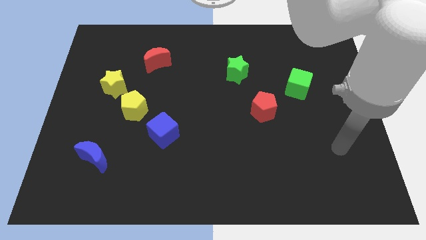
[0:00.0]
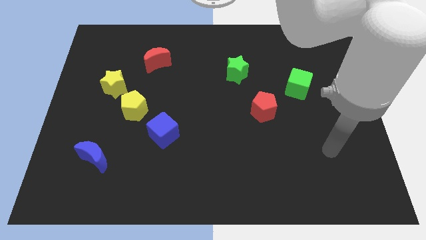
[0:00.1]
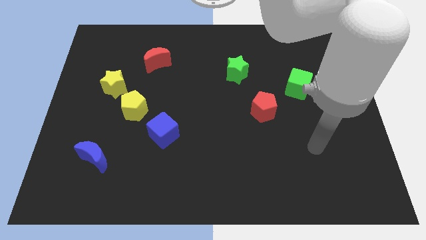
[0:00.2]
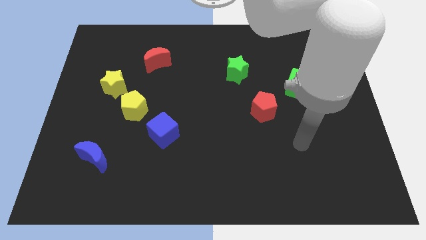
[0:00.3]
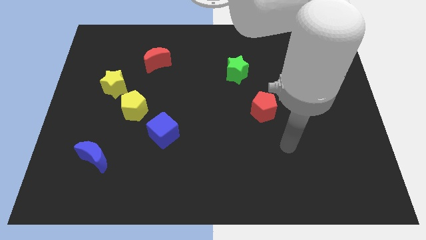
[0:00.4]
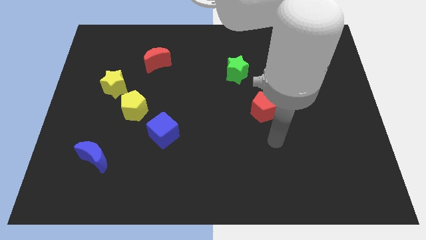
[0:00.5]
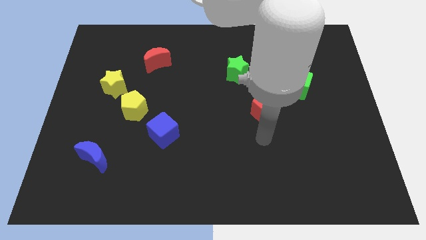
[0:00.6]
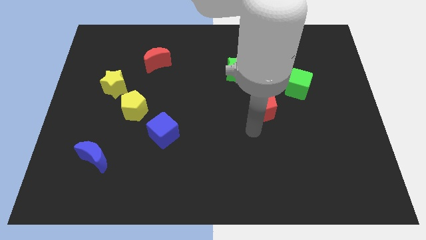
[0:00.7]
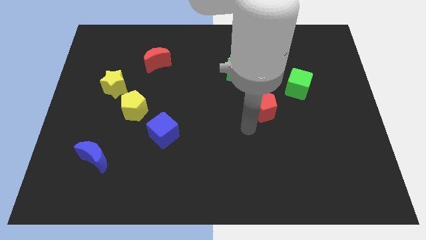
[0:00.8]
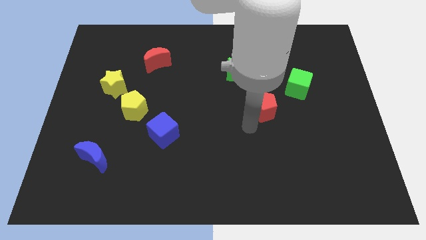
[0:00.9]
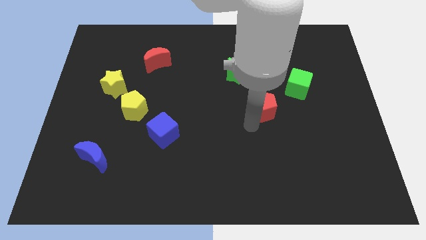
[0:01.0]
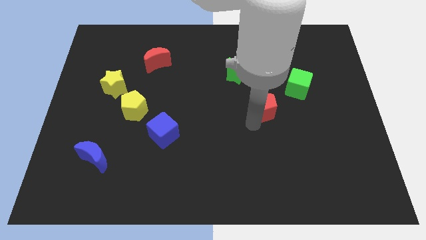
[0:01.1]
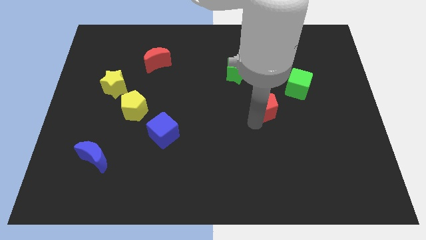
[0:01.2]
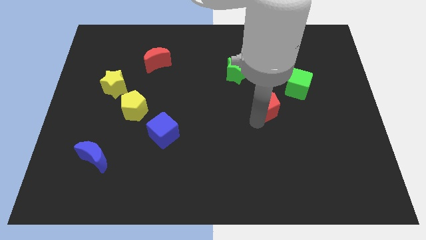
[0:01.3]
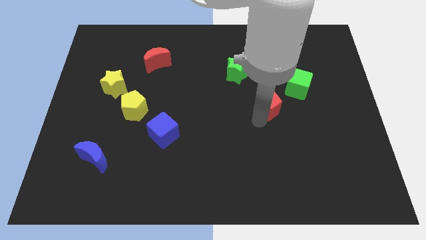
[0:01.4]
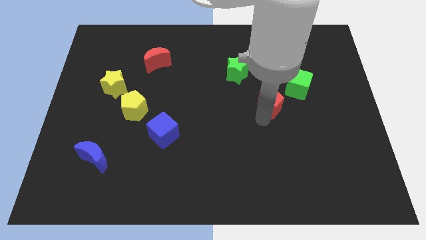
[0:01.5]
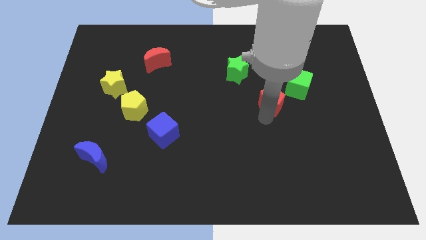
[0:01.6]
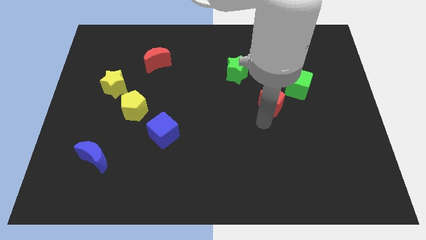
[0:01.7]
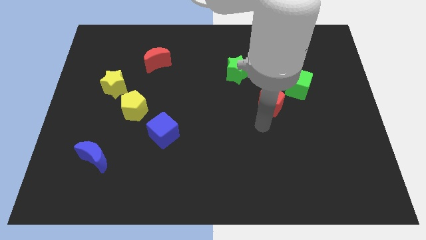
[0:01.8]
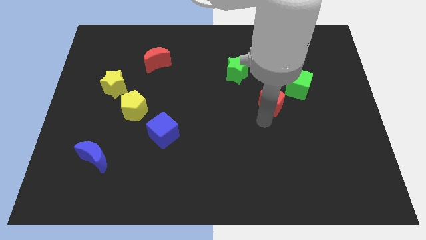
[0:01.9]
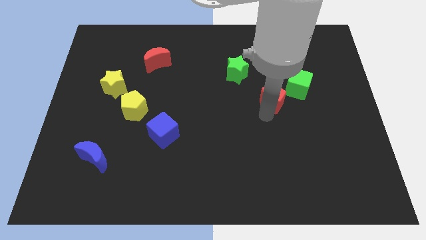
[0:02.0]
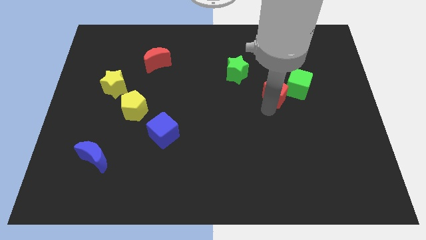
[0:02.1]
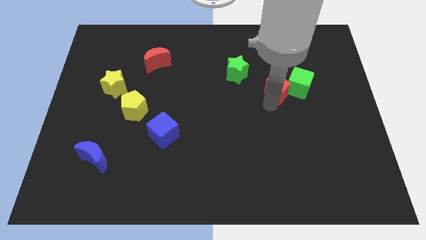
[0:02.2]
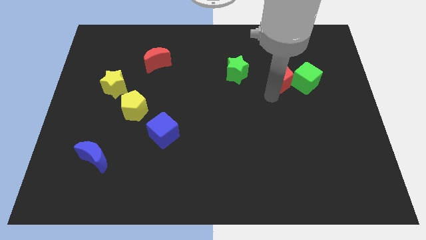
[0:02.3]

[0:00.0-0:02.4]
slightly push the red pentagon up and right diagonally

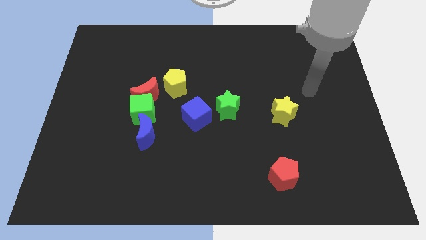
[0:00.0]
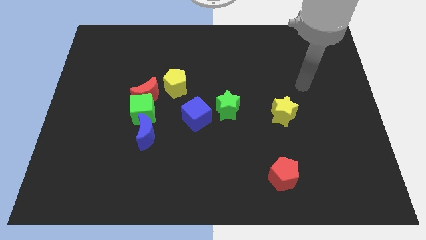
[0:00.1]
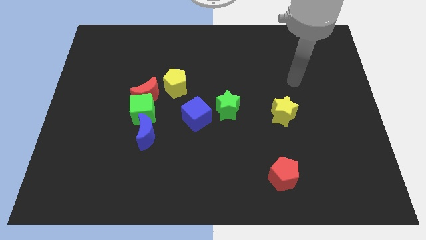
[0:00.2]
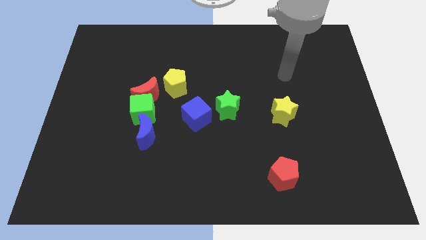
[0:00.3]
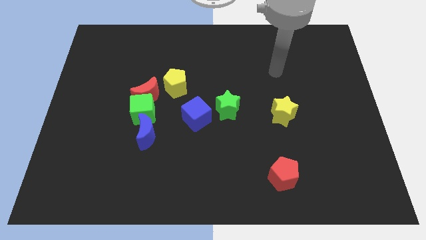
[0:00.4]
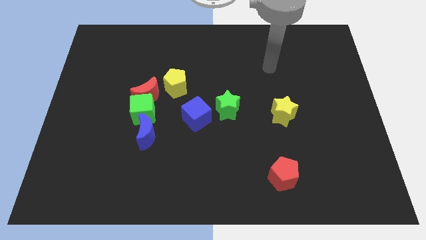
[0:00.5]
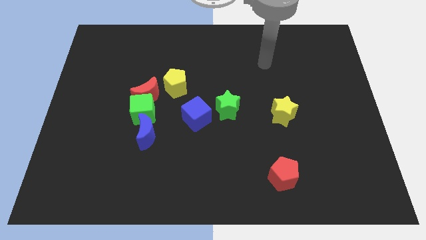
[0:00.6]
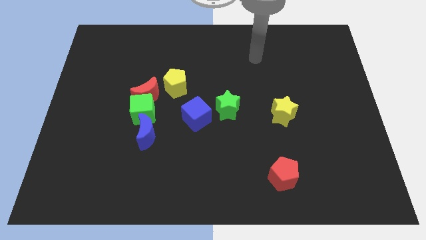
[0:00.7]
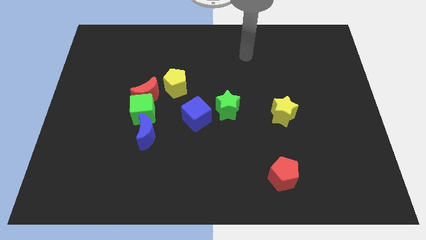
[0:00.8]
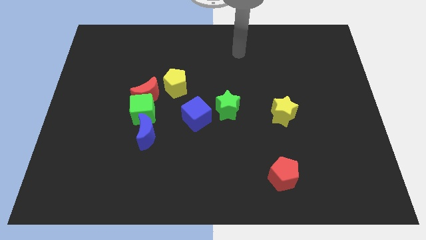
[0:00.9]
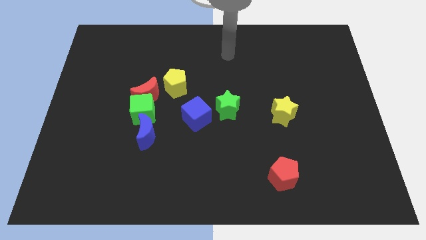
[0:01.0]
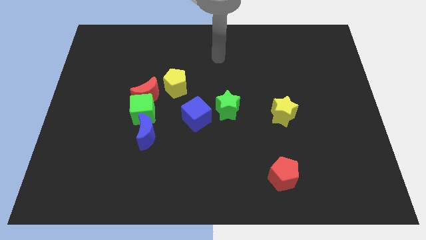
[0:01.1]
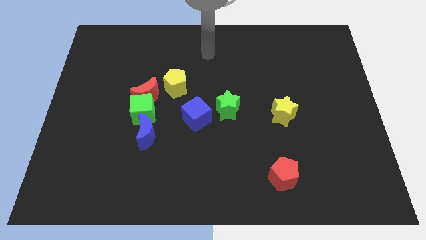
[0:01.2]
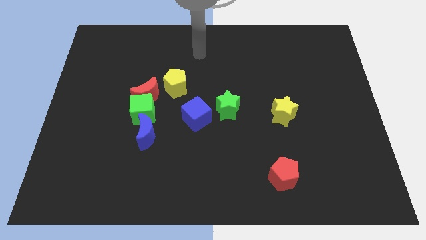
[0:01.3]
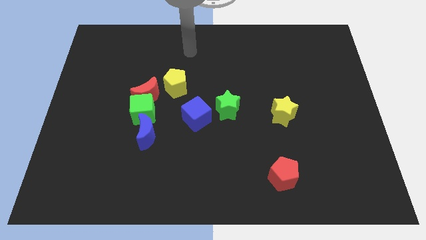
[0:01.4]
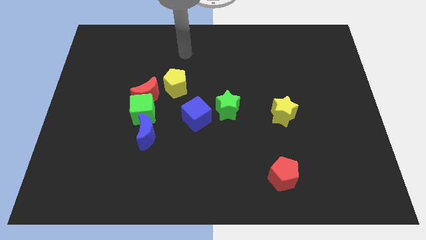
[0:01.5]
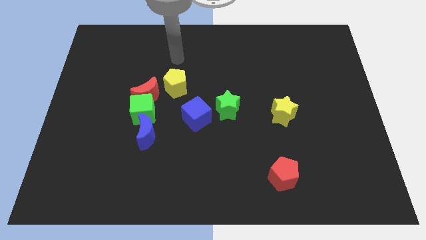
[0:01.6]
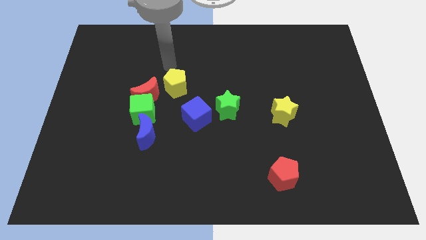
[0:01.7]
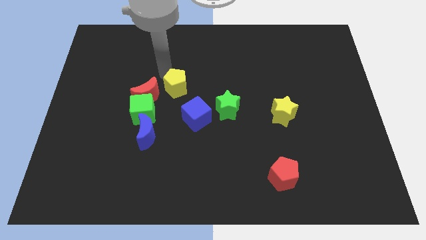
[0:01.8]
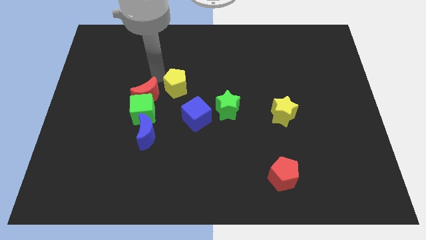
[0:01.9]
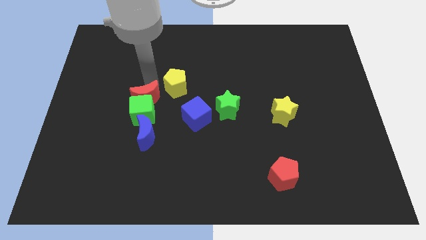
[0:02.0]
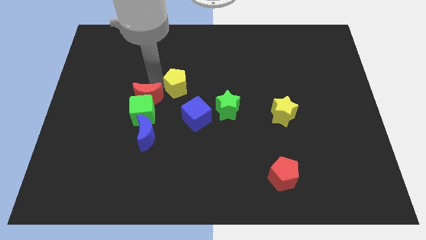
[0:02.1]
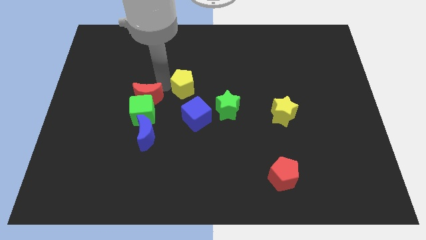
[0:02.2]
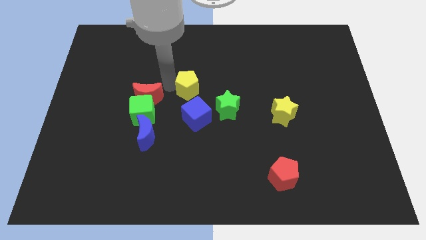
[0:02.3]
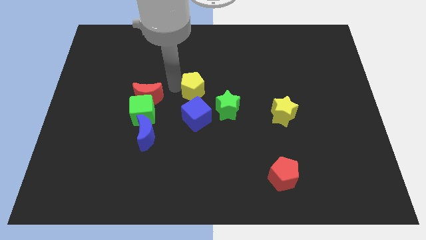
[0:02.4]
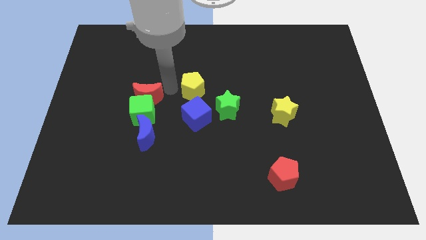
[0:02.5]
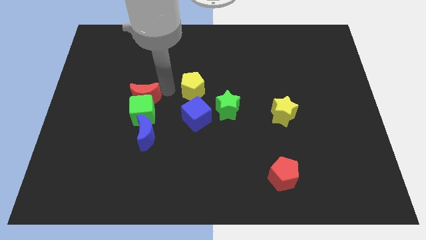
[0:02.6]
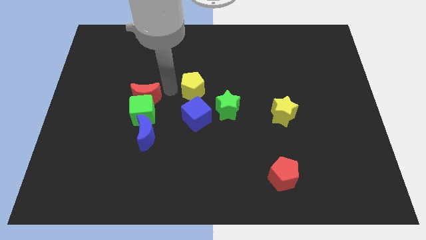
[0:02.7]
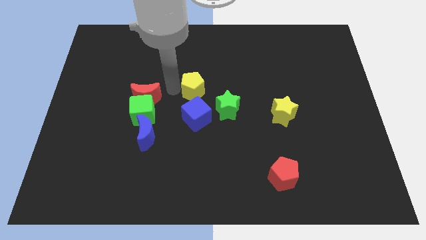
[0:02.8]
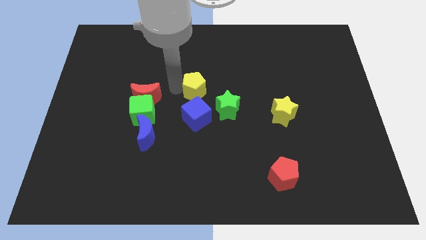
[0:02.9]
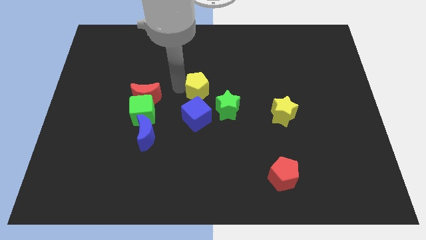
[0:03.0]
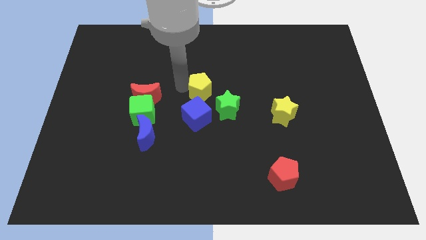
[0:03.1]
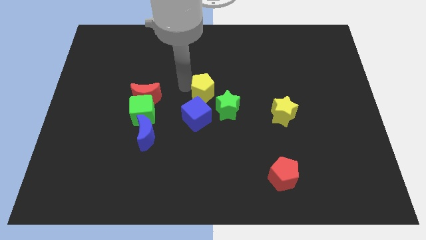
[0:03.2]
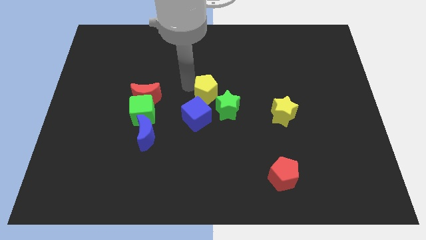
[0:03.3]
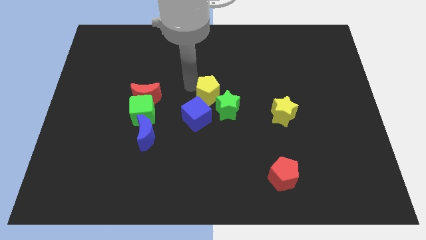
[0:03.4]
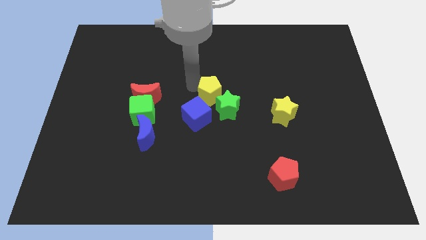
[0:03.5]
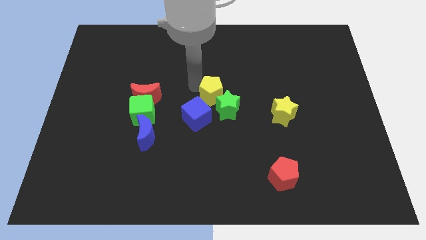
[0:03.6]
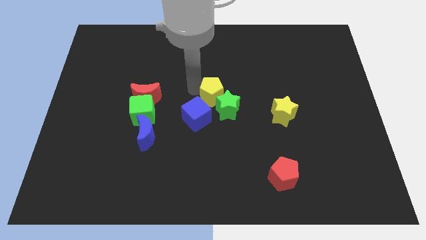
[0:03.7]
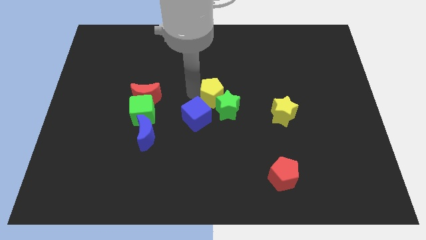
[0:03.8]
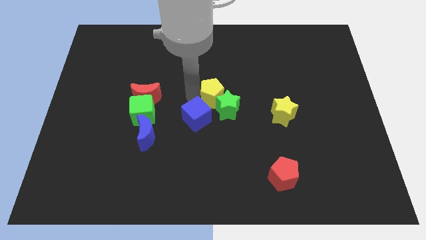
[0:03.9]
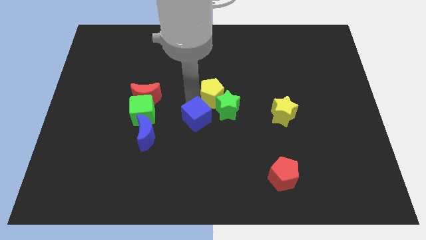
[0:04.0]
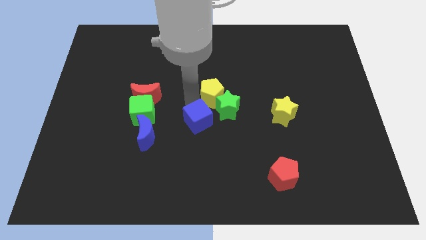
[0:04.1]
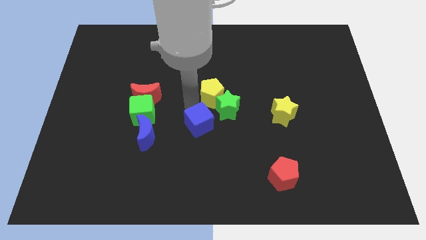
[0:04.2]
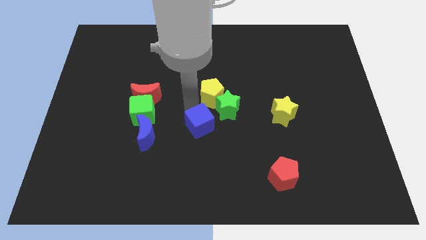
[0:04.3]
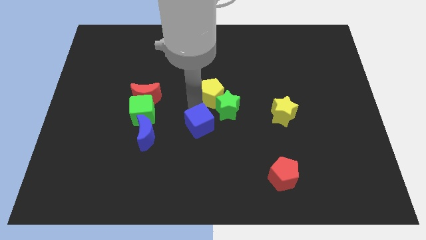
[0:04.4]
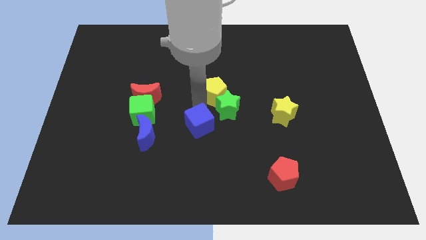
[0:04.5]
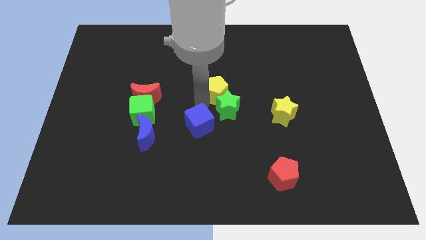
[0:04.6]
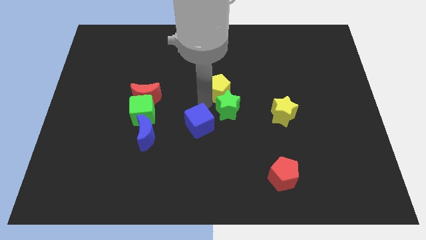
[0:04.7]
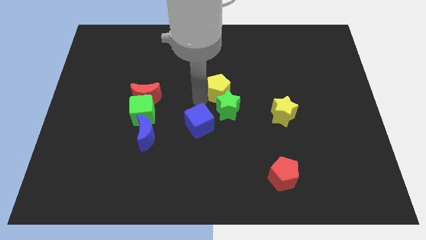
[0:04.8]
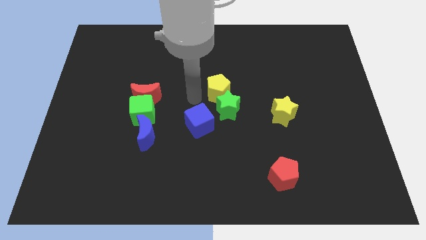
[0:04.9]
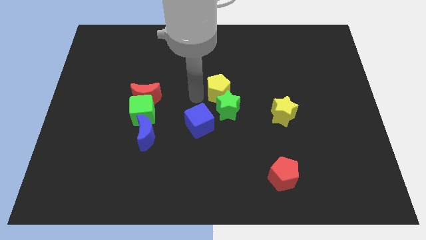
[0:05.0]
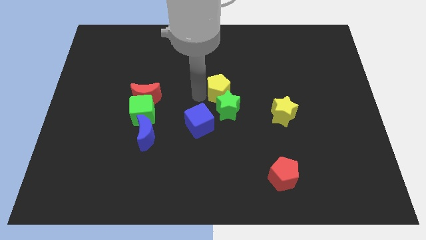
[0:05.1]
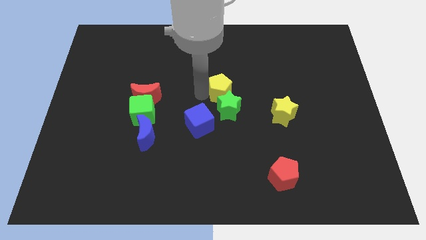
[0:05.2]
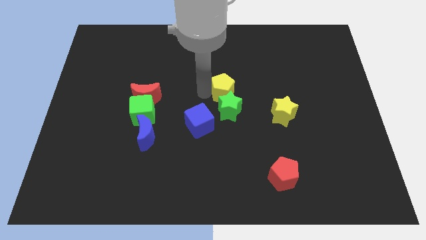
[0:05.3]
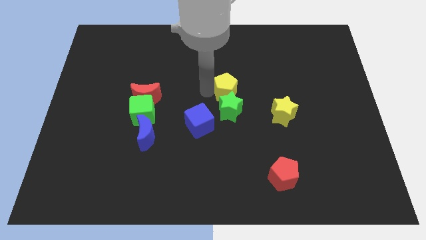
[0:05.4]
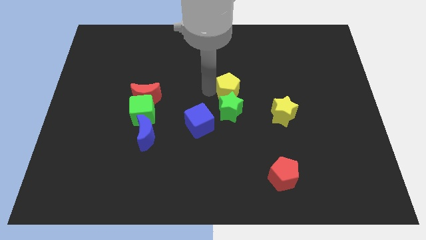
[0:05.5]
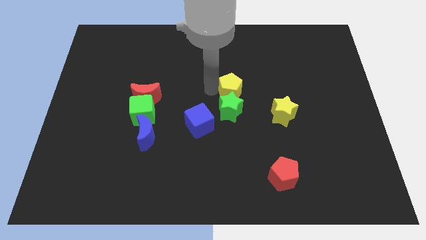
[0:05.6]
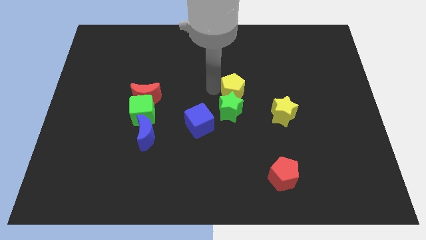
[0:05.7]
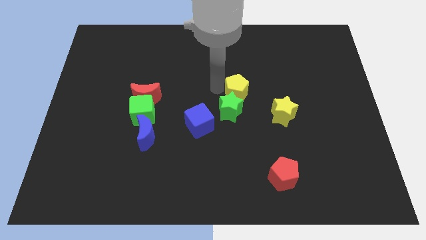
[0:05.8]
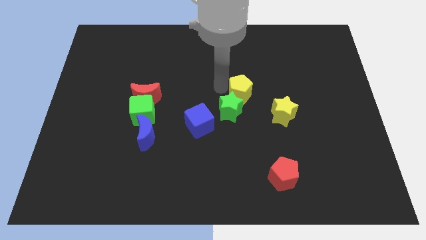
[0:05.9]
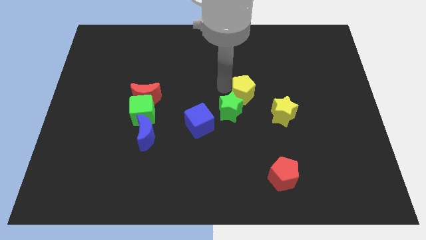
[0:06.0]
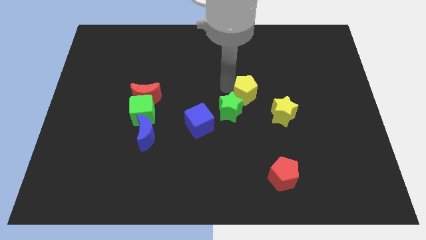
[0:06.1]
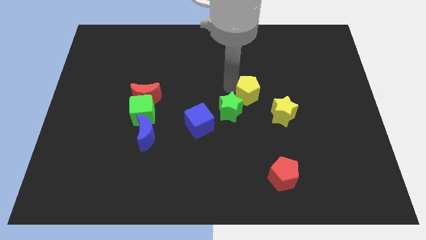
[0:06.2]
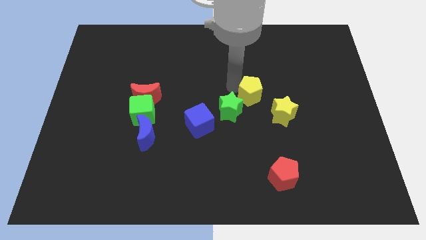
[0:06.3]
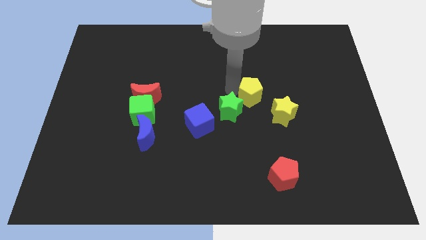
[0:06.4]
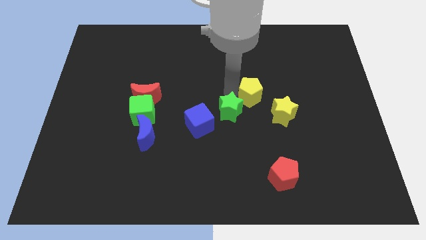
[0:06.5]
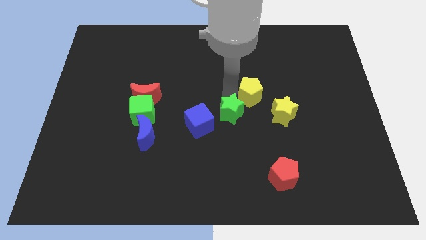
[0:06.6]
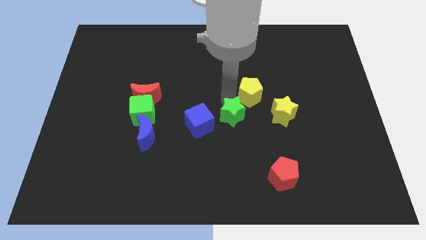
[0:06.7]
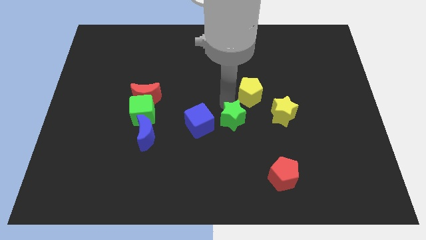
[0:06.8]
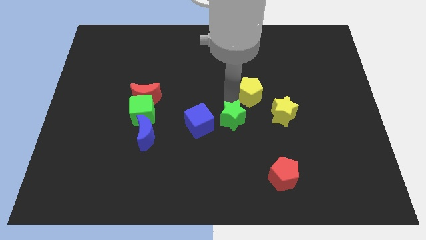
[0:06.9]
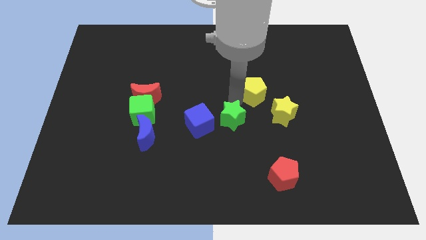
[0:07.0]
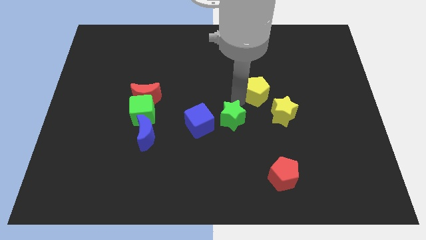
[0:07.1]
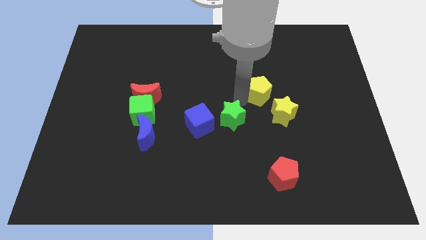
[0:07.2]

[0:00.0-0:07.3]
slide the yellow pentagon to the right
